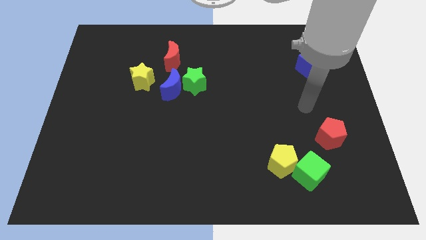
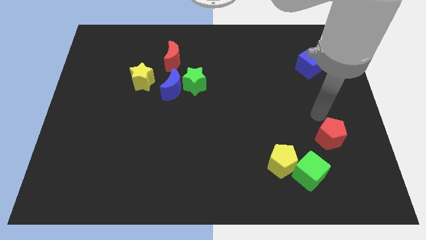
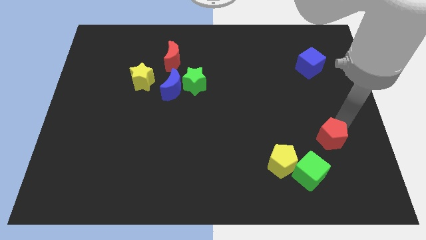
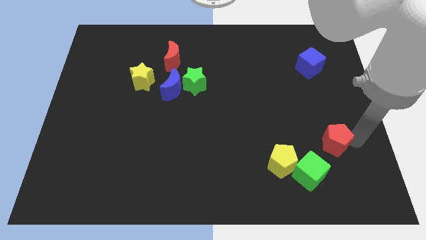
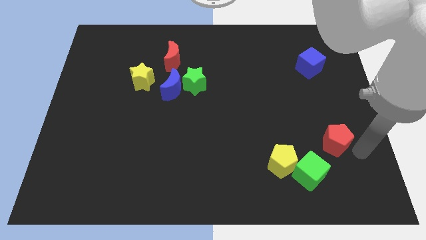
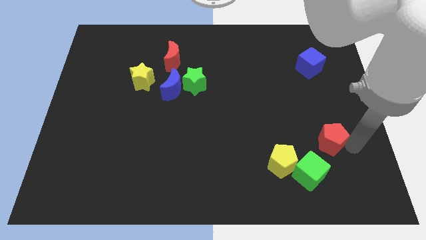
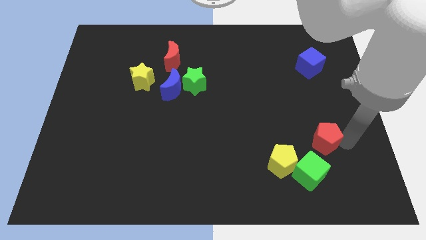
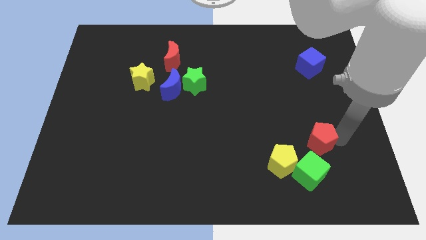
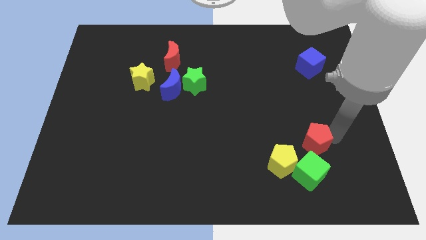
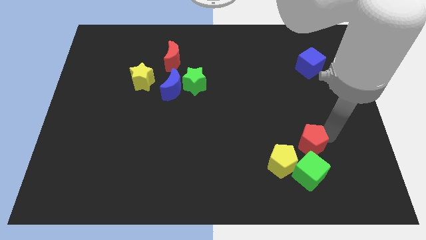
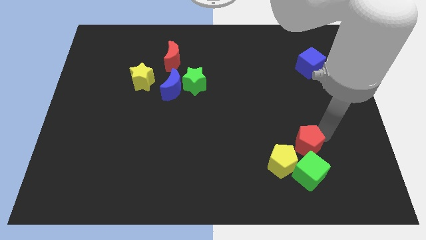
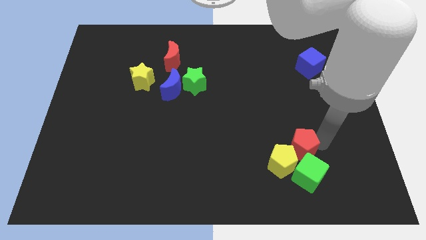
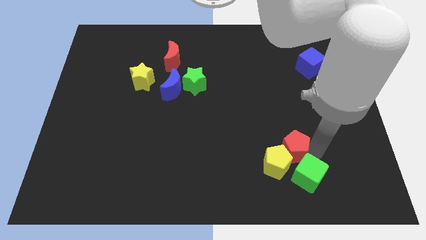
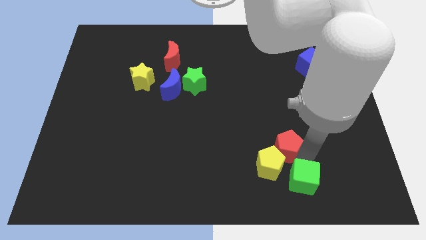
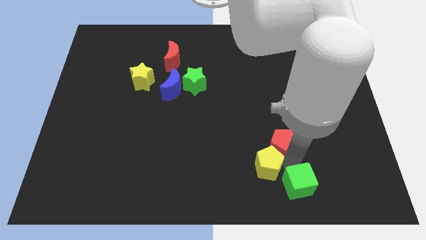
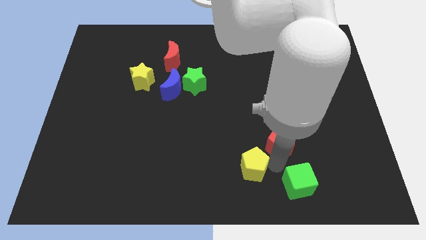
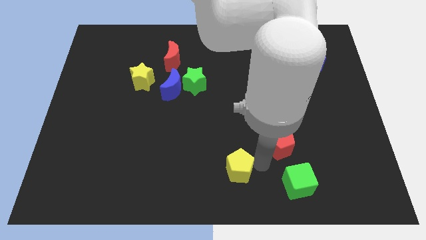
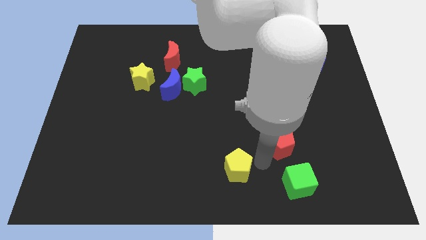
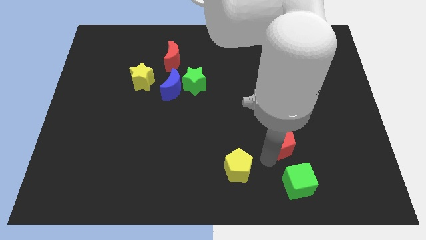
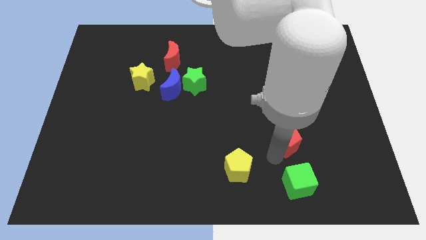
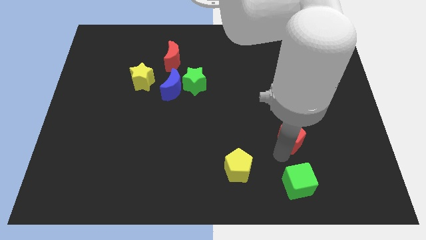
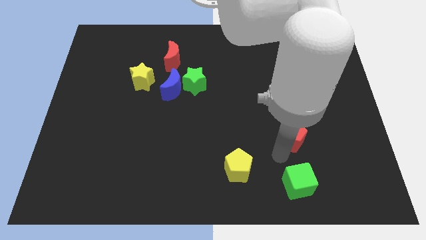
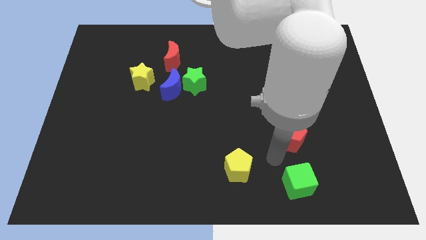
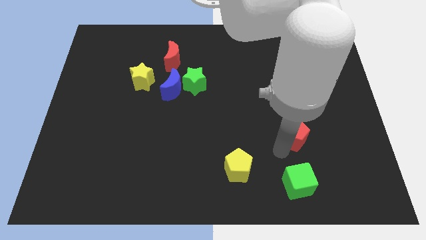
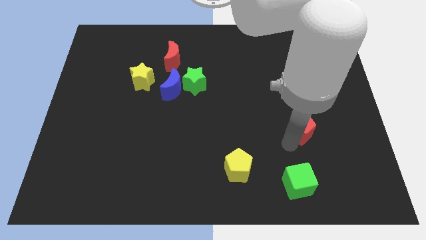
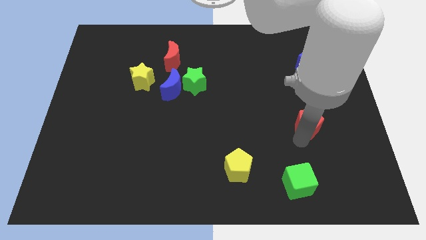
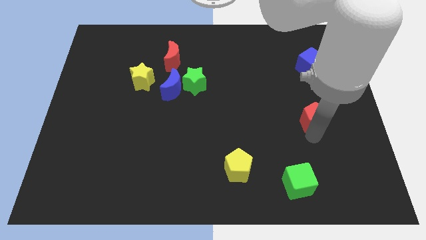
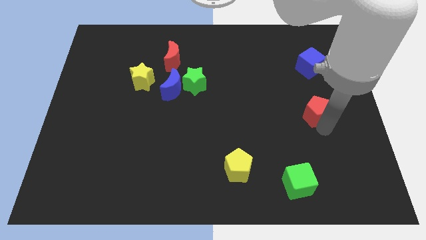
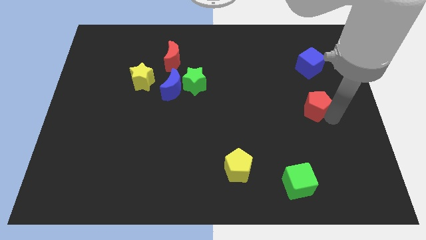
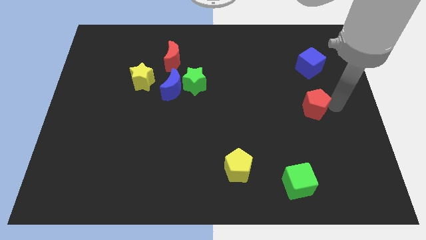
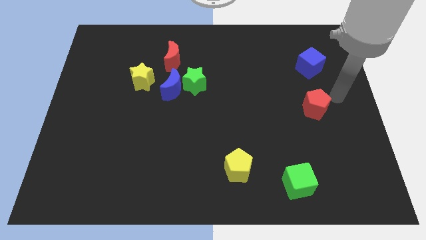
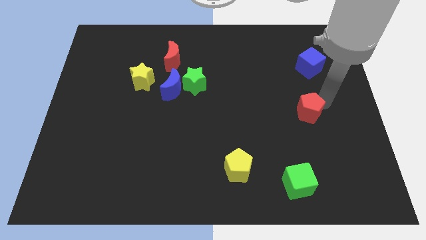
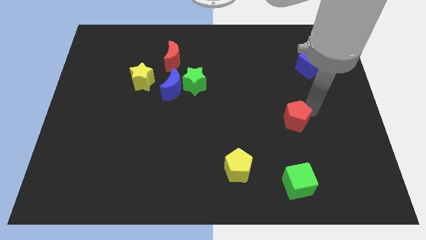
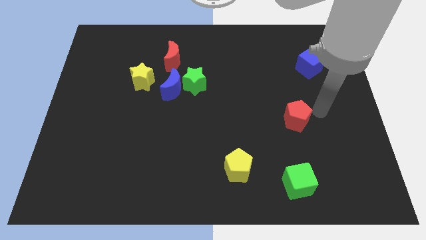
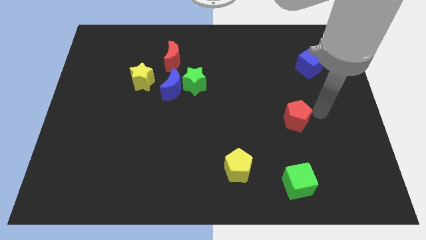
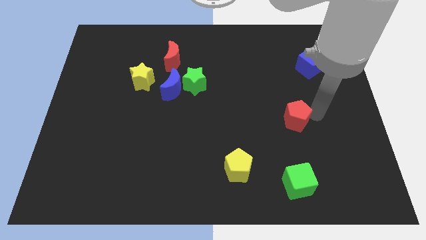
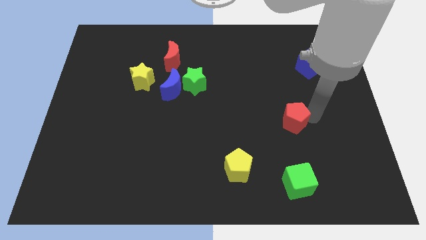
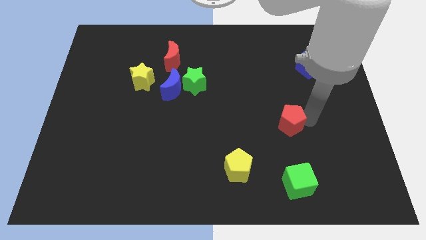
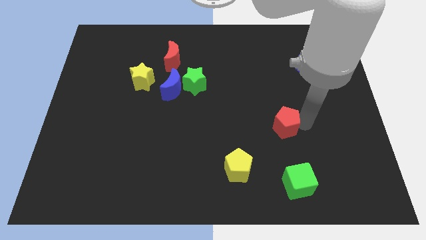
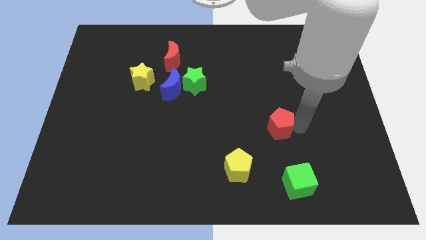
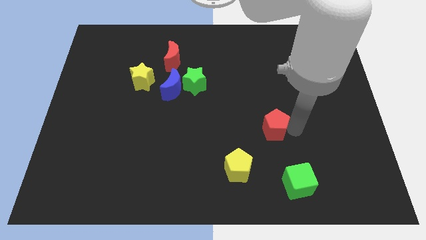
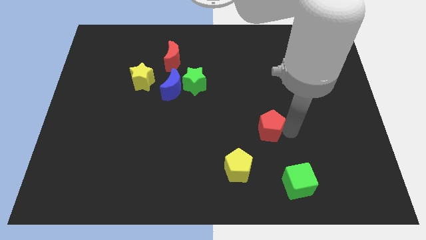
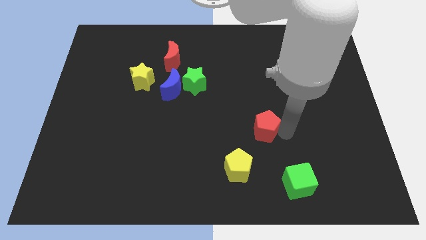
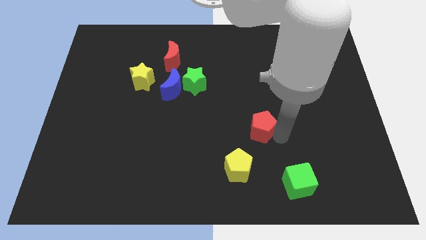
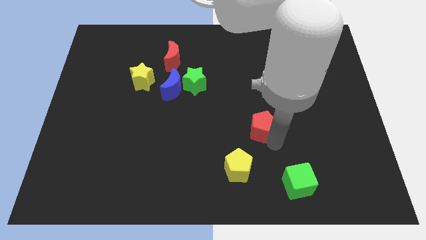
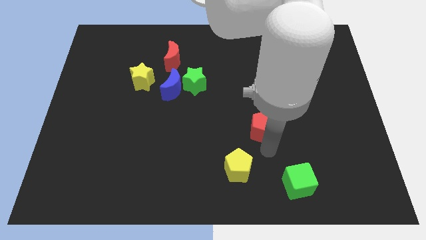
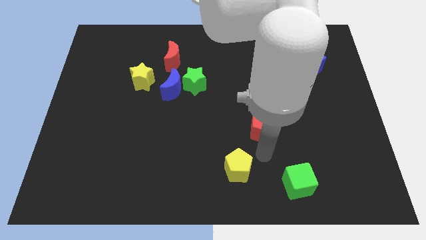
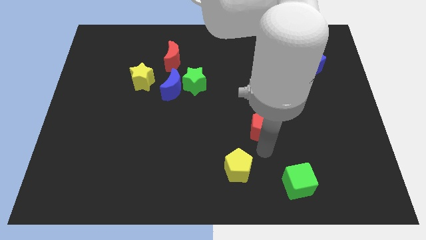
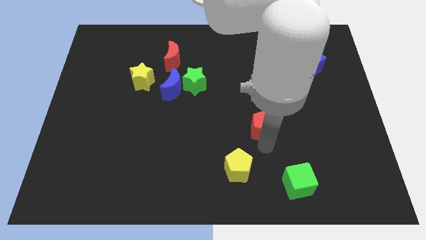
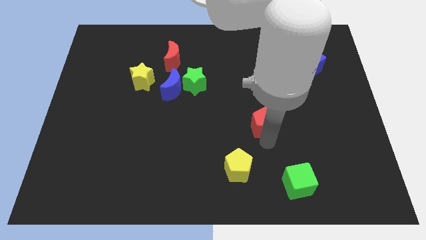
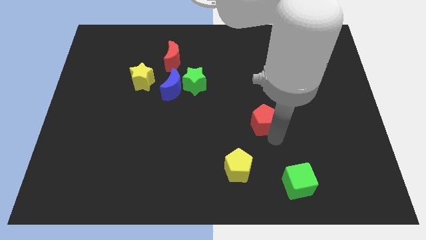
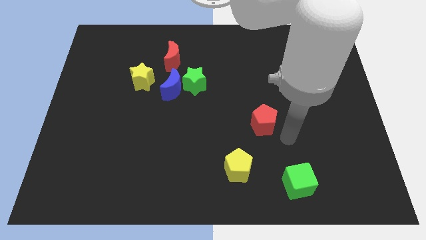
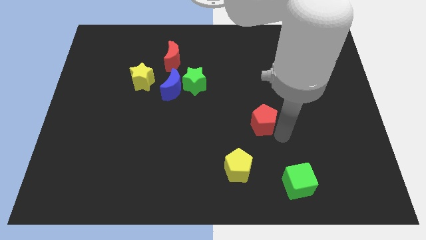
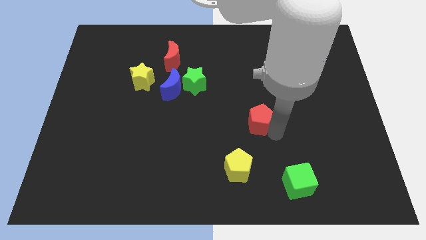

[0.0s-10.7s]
put the red pentagon to the middle of the board

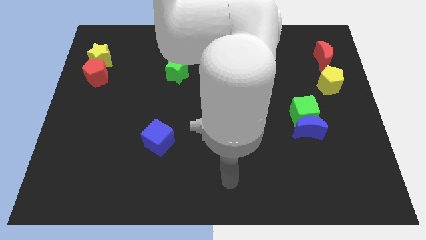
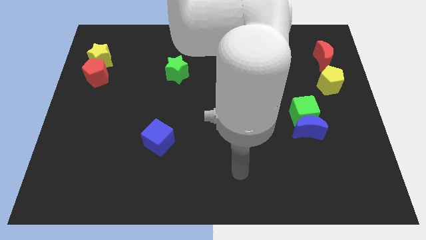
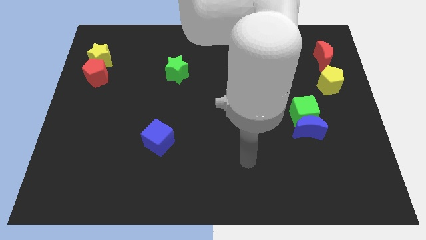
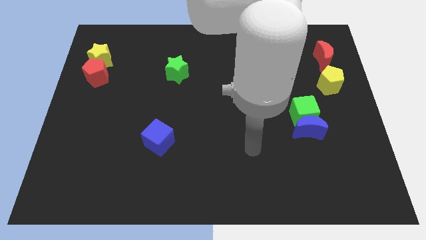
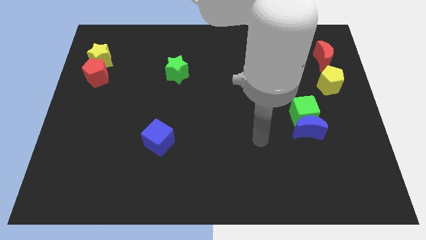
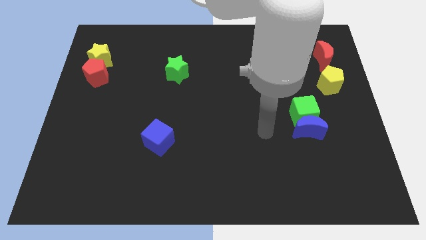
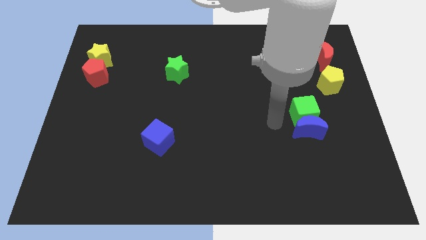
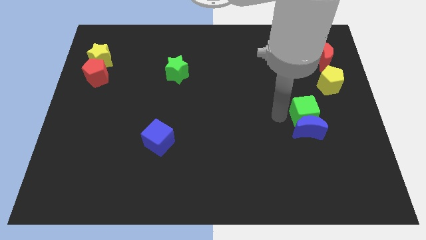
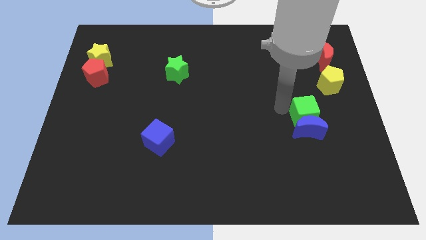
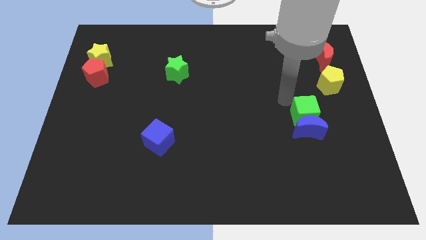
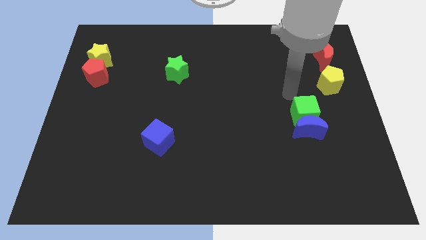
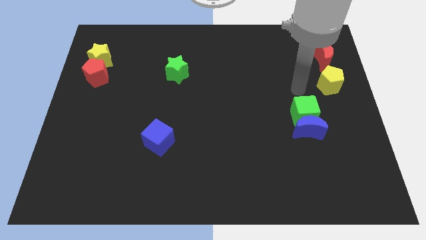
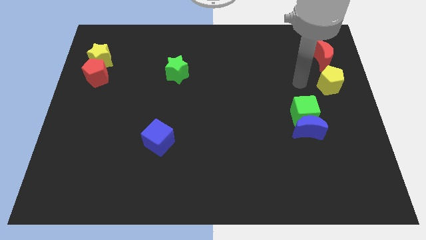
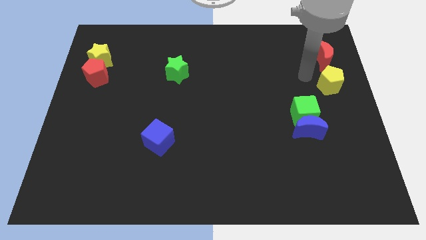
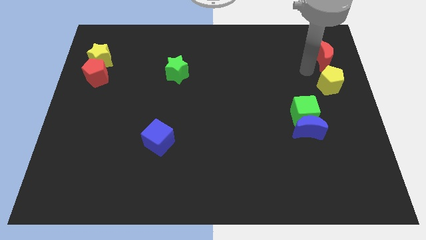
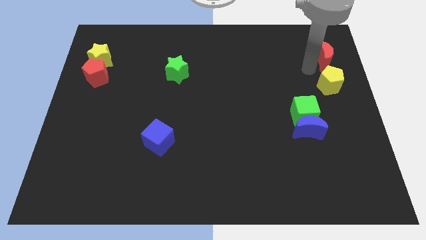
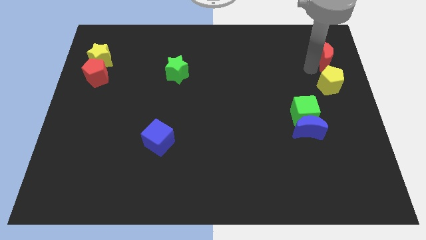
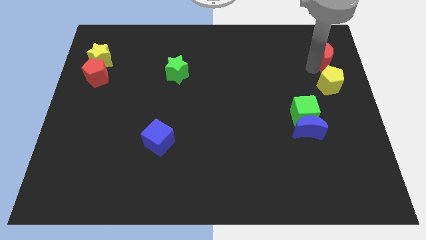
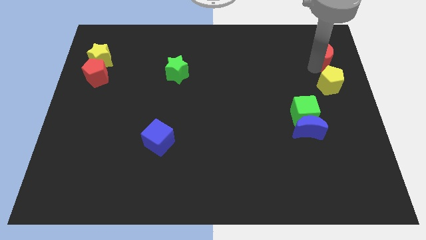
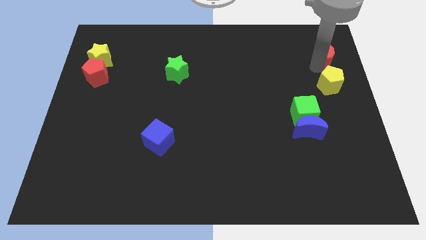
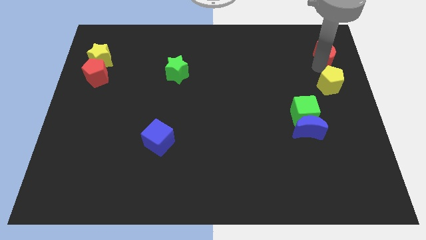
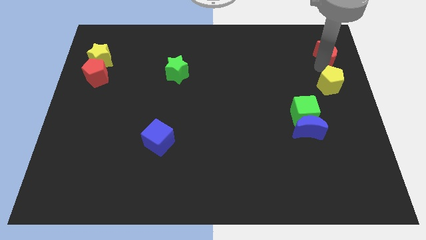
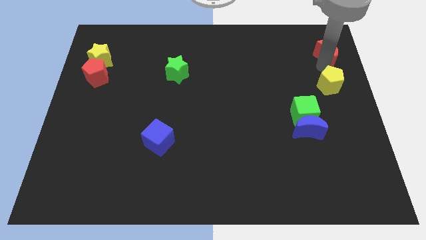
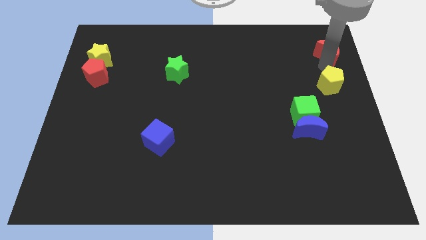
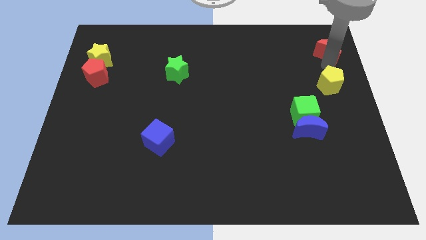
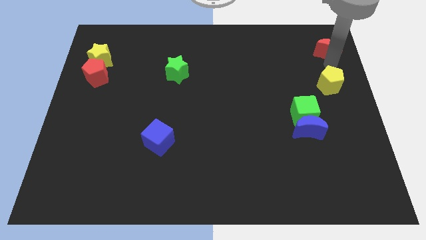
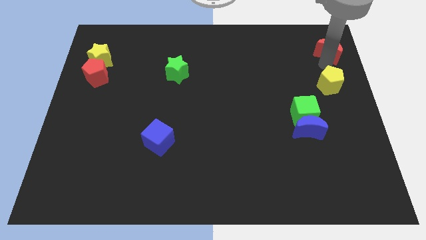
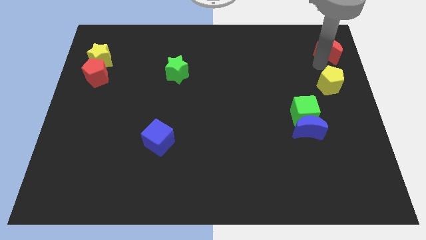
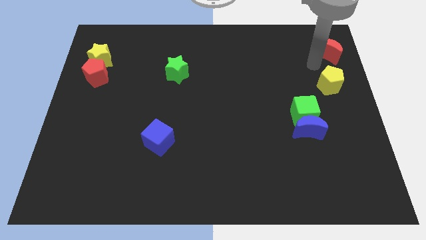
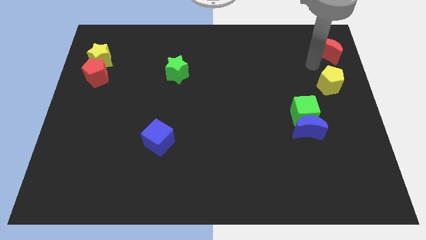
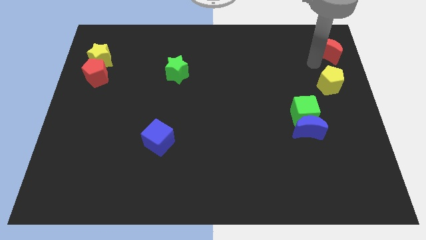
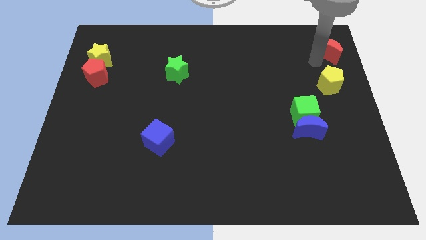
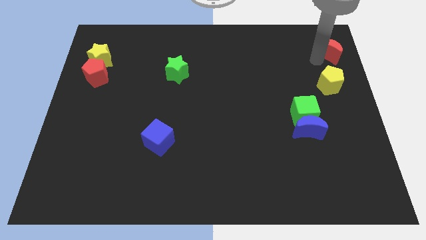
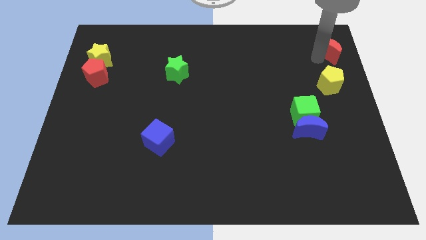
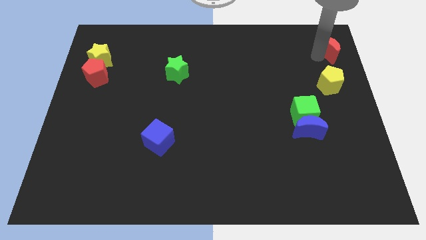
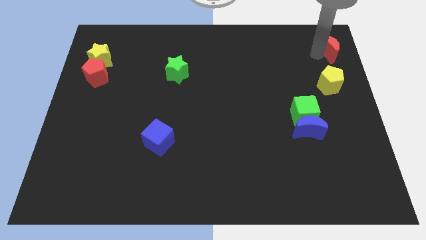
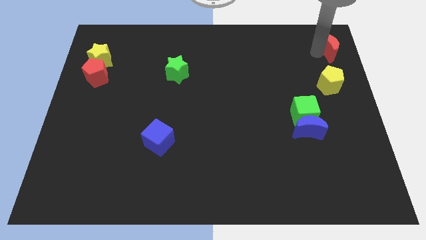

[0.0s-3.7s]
put the red moon to the top right of the board
